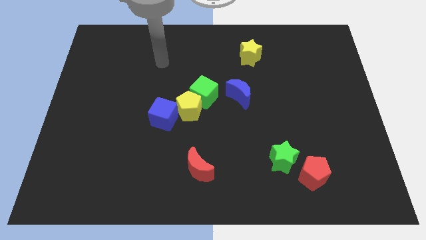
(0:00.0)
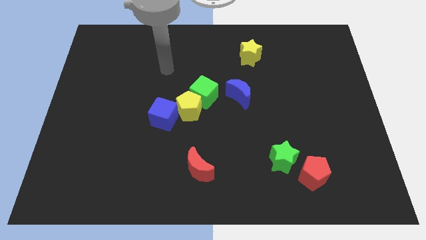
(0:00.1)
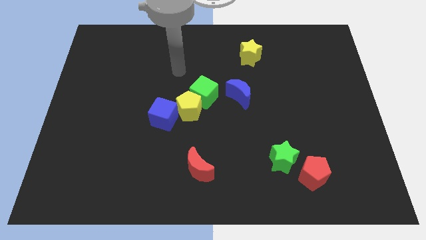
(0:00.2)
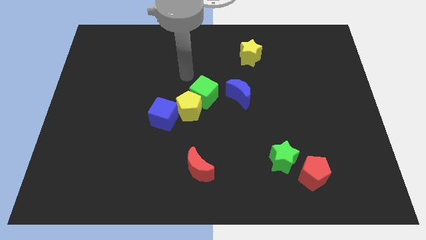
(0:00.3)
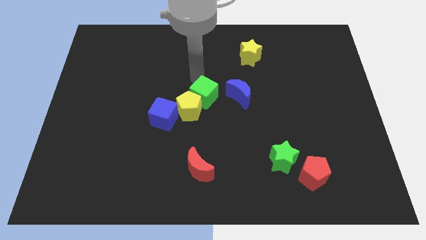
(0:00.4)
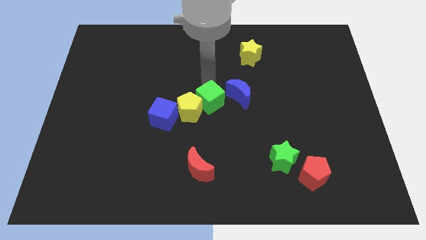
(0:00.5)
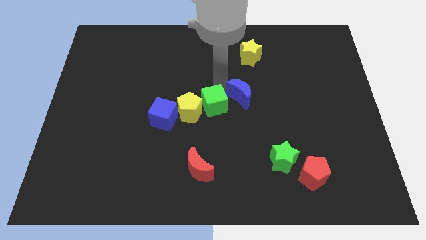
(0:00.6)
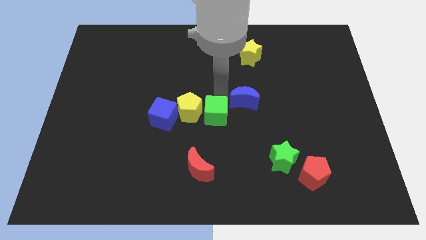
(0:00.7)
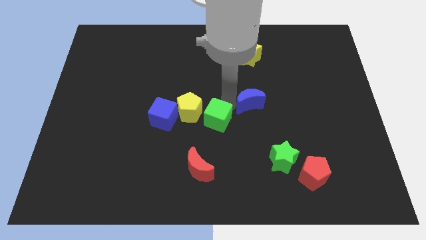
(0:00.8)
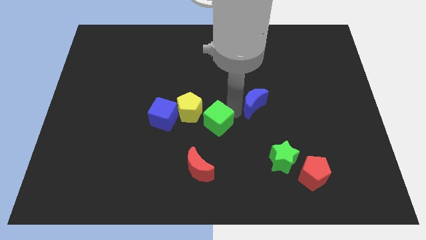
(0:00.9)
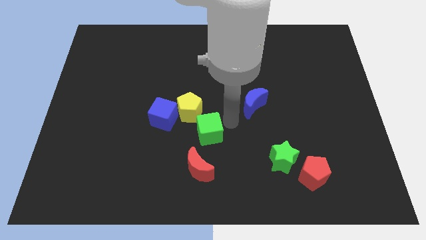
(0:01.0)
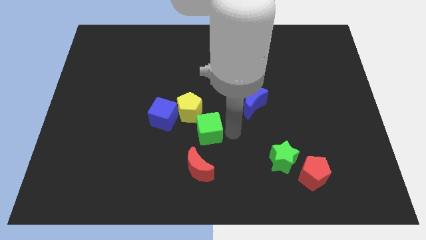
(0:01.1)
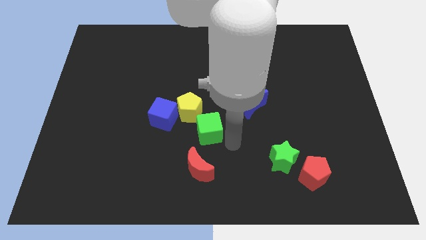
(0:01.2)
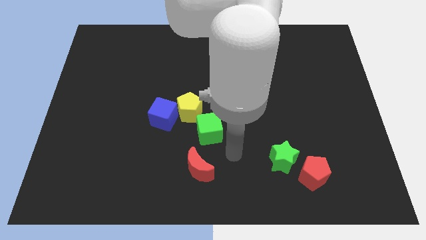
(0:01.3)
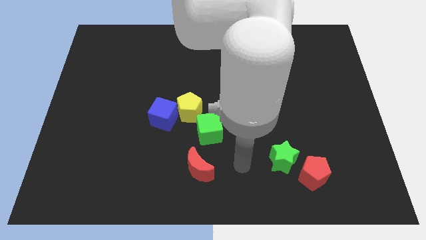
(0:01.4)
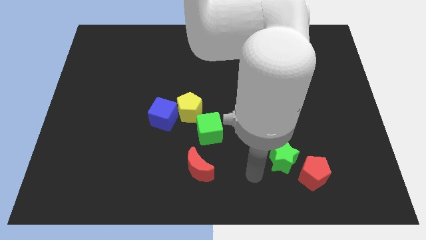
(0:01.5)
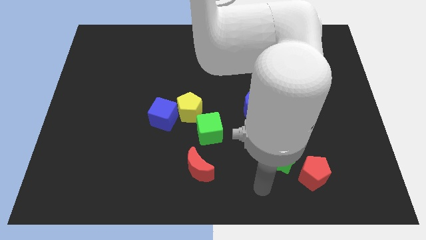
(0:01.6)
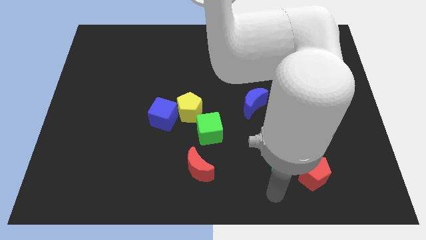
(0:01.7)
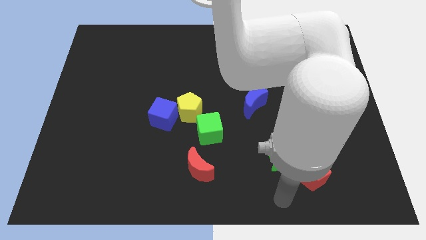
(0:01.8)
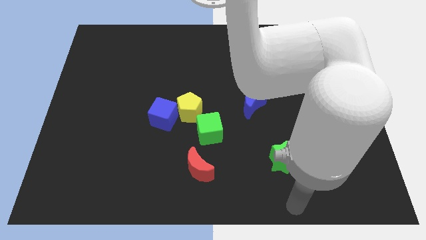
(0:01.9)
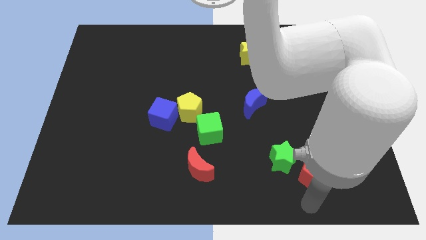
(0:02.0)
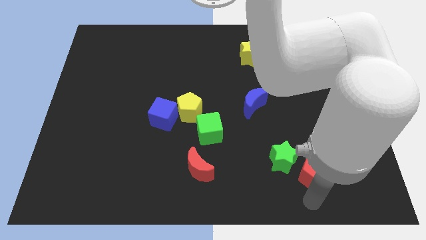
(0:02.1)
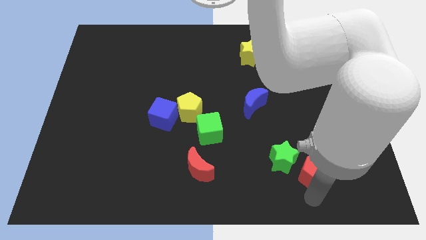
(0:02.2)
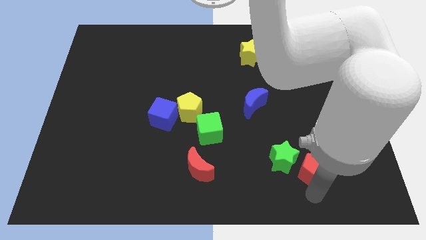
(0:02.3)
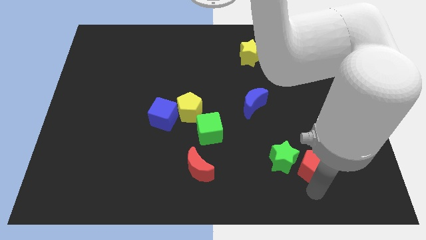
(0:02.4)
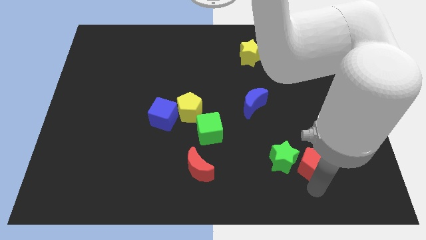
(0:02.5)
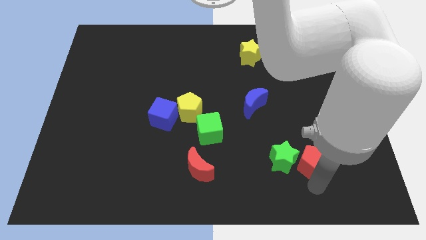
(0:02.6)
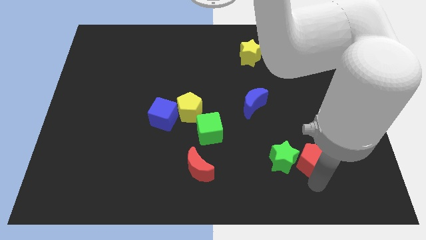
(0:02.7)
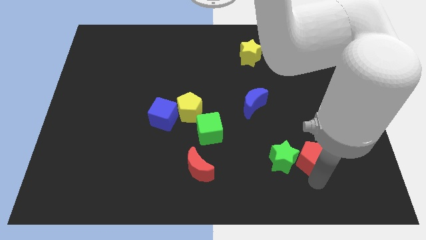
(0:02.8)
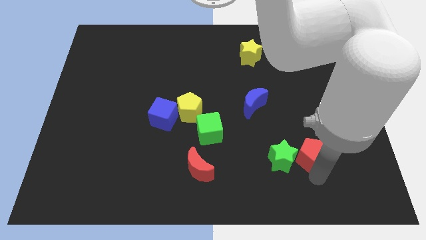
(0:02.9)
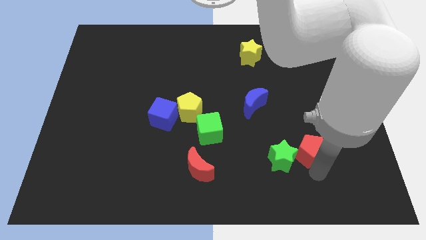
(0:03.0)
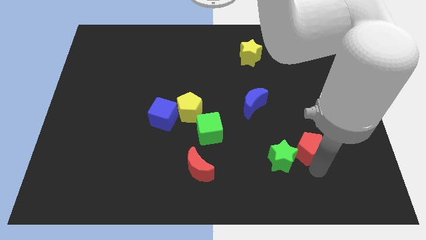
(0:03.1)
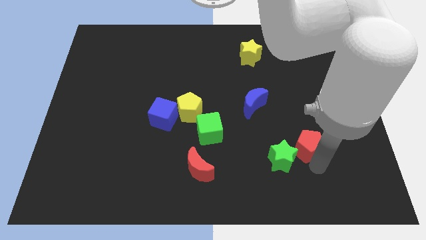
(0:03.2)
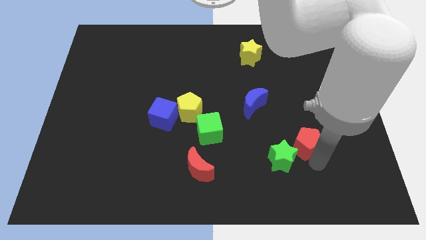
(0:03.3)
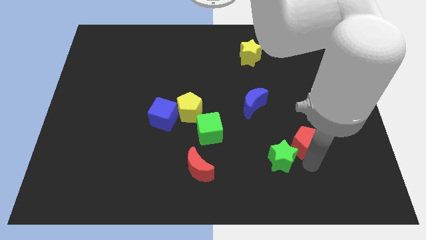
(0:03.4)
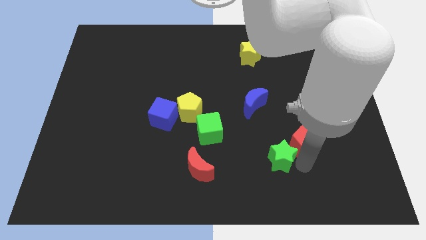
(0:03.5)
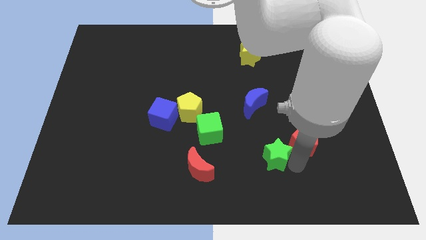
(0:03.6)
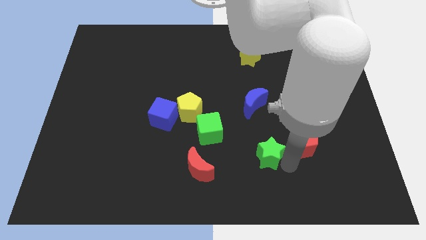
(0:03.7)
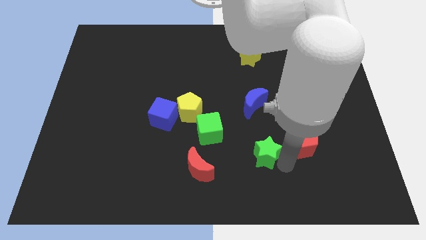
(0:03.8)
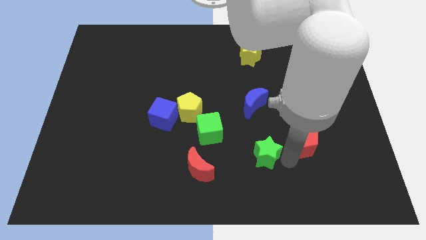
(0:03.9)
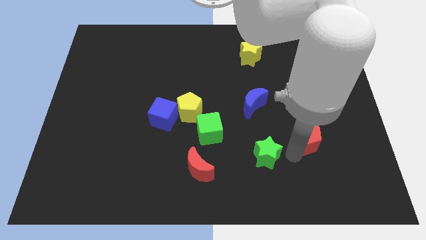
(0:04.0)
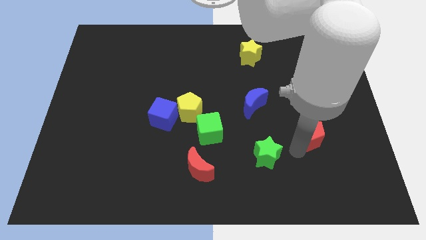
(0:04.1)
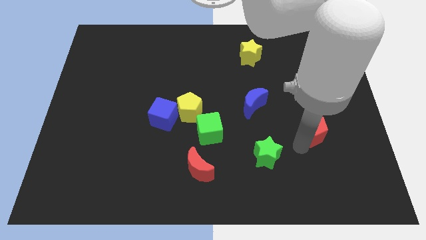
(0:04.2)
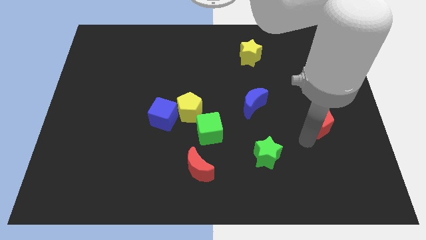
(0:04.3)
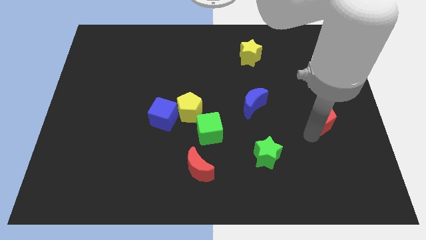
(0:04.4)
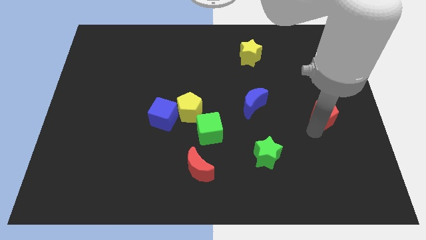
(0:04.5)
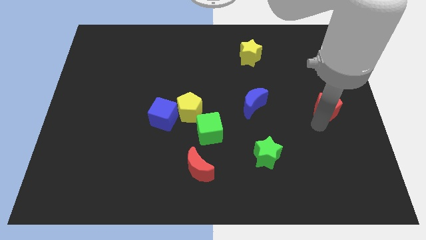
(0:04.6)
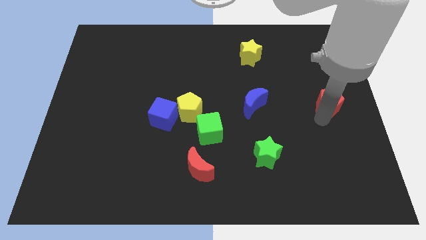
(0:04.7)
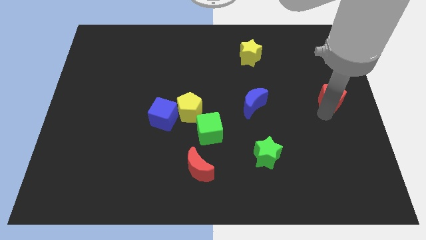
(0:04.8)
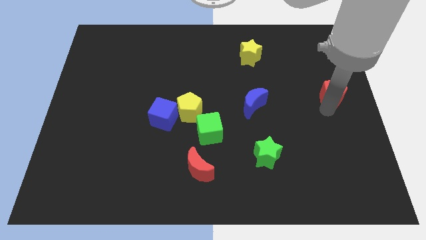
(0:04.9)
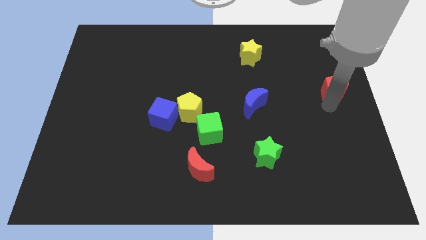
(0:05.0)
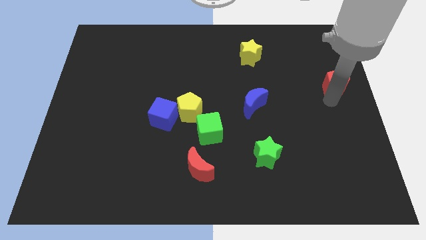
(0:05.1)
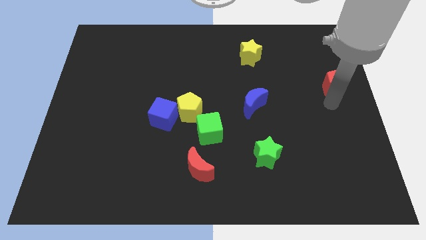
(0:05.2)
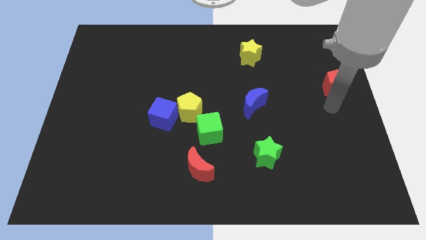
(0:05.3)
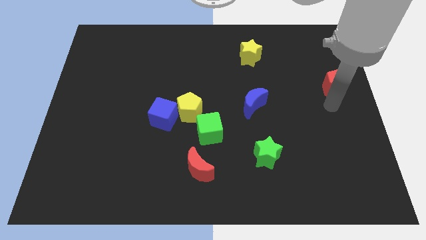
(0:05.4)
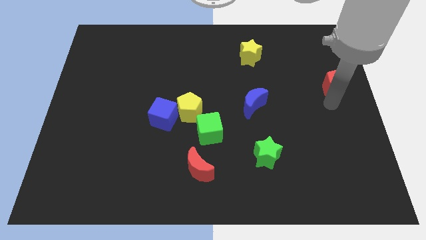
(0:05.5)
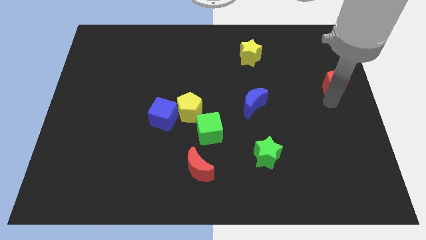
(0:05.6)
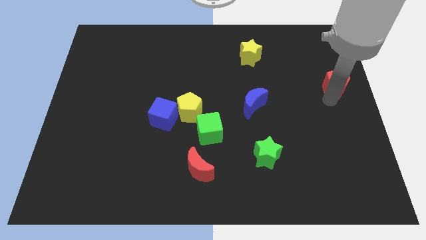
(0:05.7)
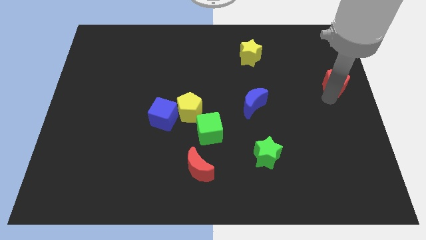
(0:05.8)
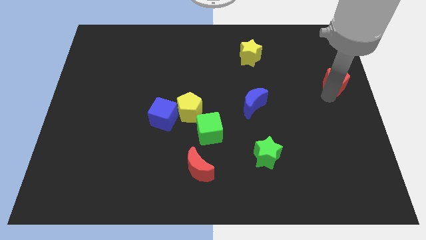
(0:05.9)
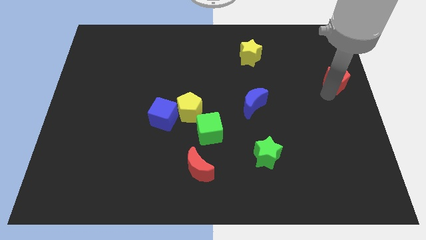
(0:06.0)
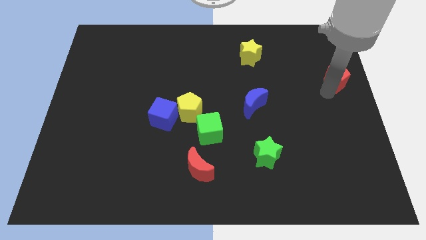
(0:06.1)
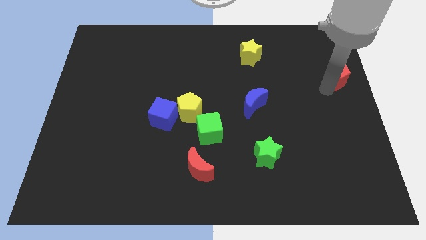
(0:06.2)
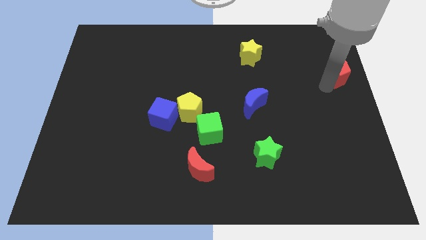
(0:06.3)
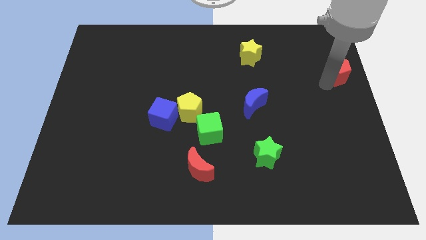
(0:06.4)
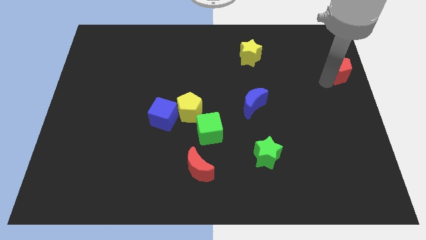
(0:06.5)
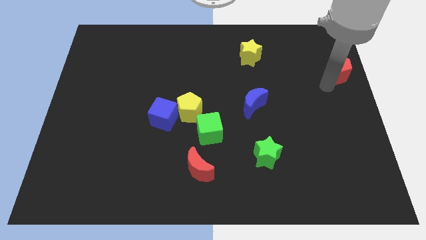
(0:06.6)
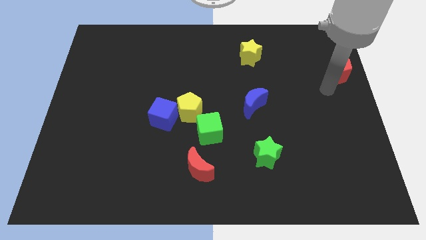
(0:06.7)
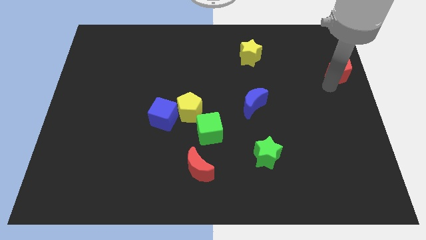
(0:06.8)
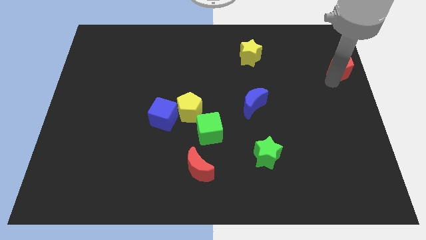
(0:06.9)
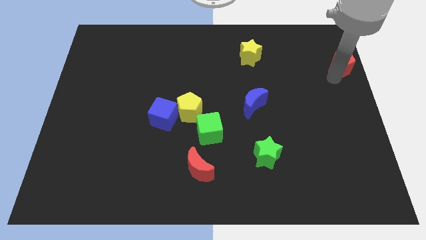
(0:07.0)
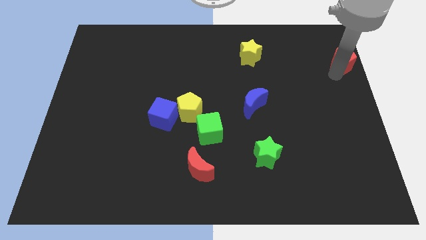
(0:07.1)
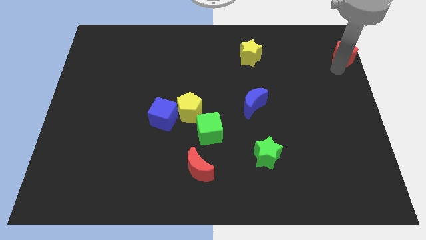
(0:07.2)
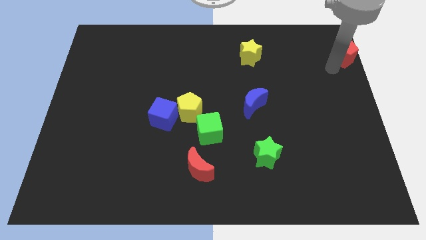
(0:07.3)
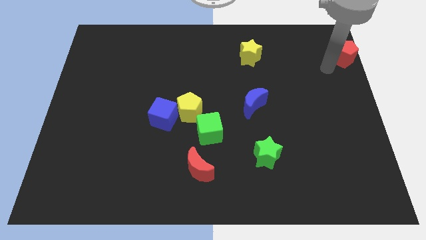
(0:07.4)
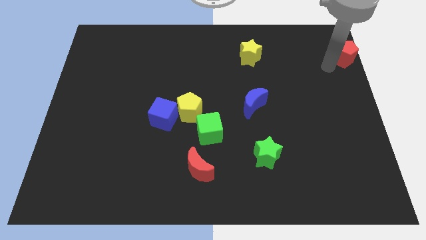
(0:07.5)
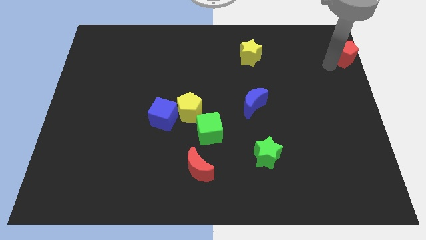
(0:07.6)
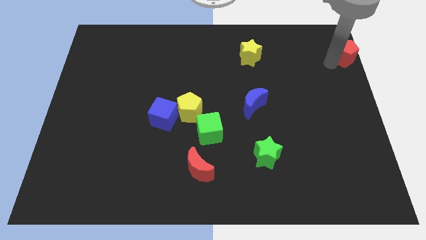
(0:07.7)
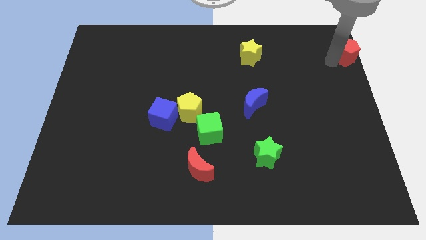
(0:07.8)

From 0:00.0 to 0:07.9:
slide the red pentagon to the top right
